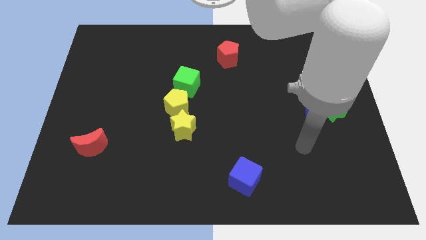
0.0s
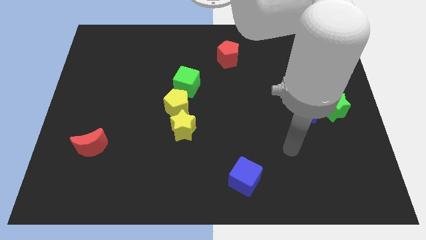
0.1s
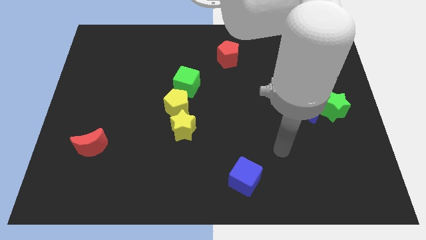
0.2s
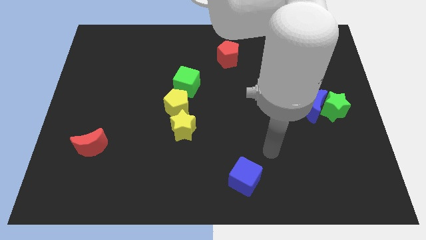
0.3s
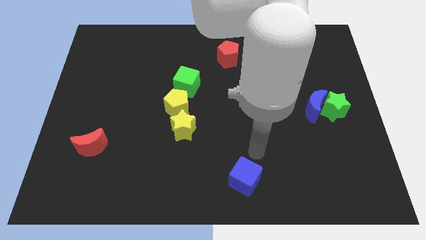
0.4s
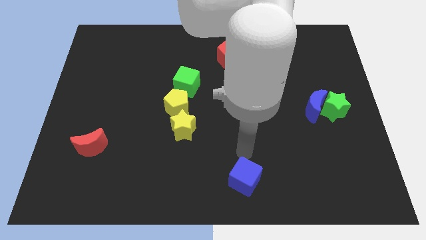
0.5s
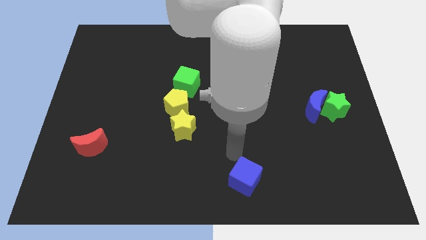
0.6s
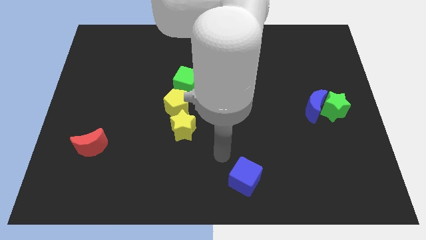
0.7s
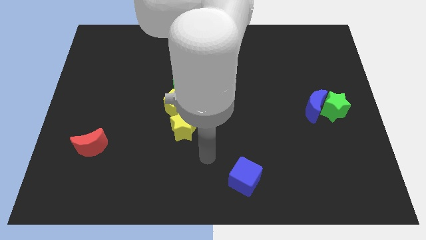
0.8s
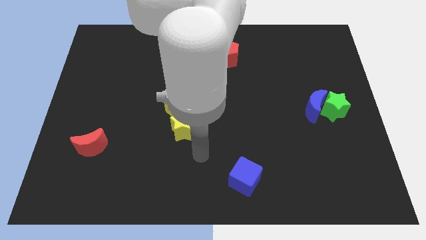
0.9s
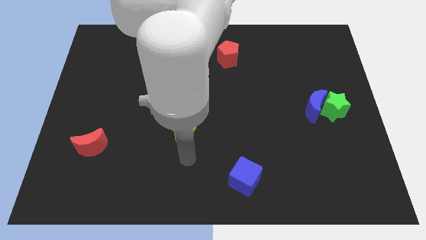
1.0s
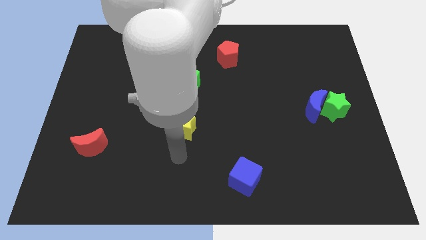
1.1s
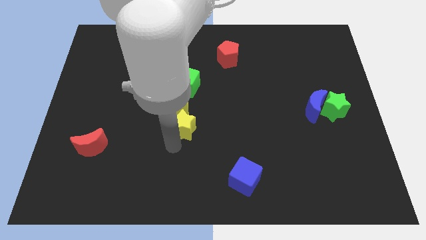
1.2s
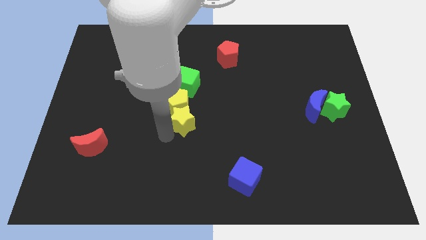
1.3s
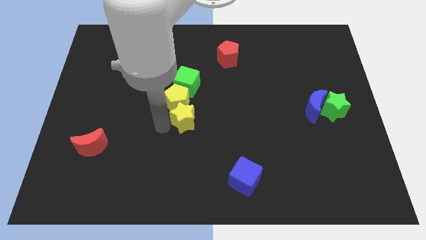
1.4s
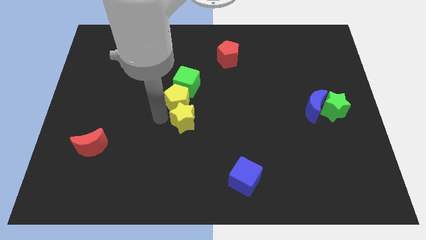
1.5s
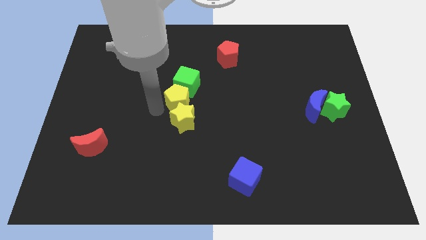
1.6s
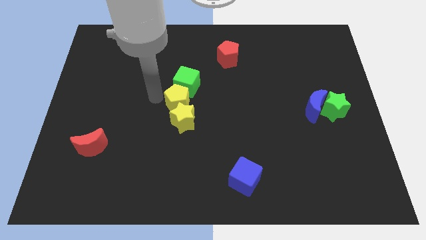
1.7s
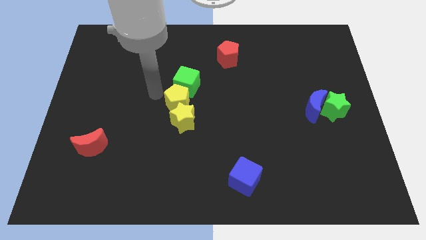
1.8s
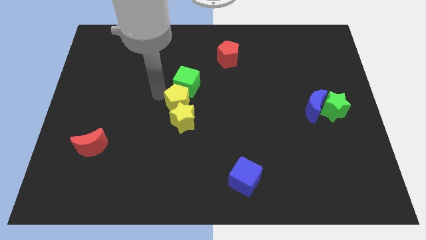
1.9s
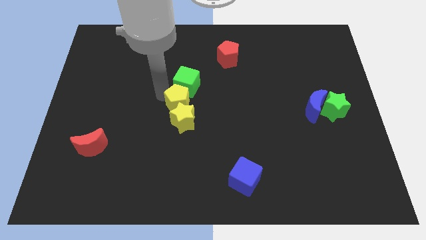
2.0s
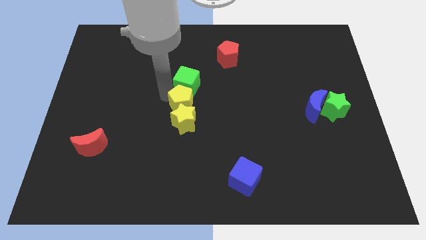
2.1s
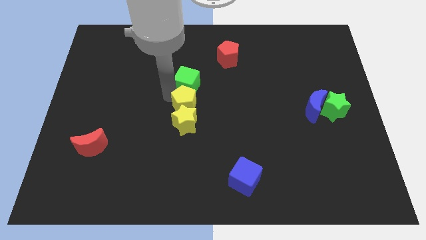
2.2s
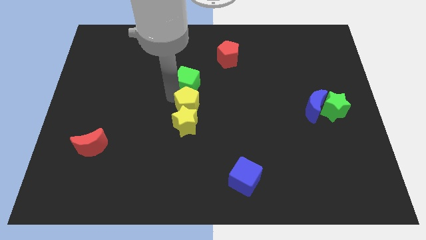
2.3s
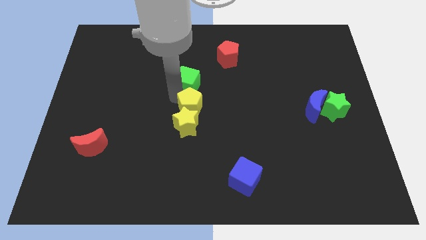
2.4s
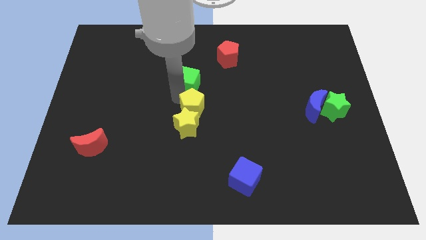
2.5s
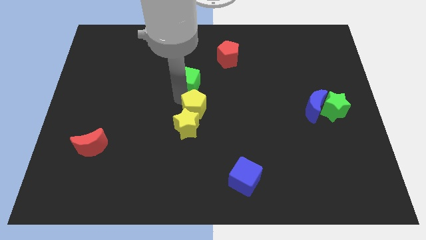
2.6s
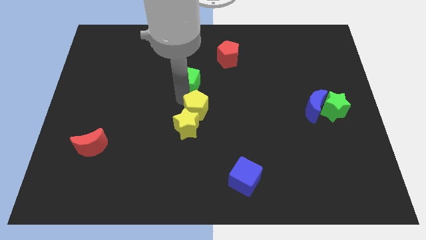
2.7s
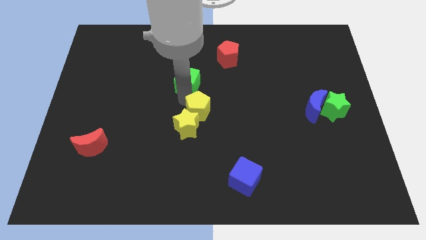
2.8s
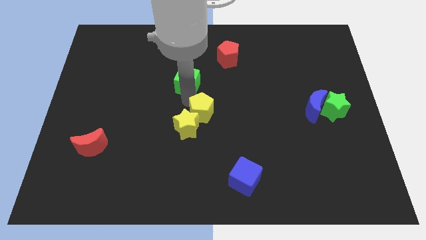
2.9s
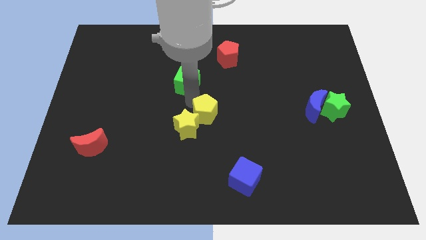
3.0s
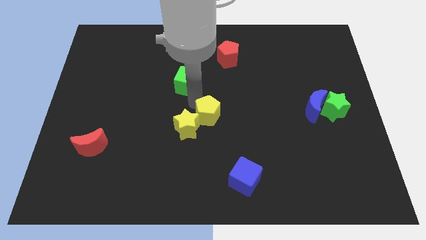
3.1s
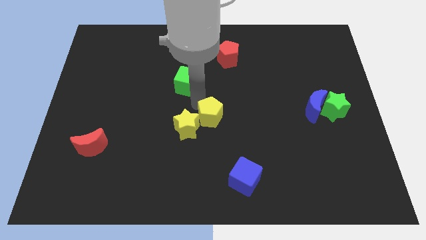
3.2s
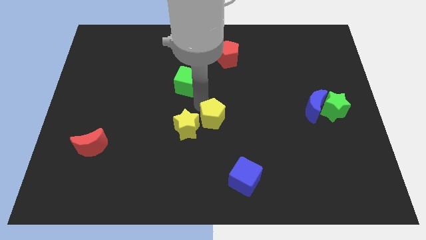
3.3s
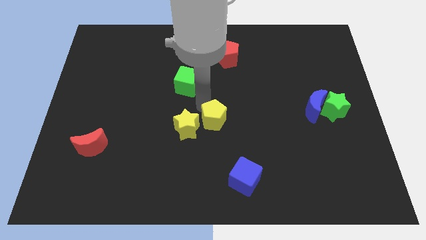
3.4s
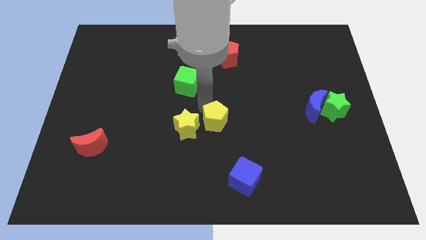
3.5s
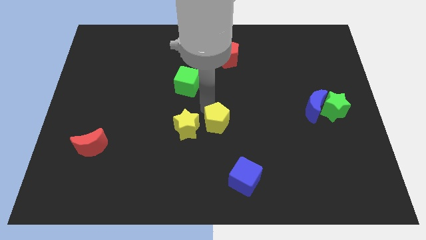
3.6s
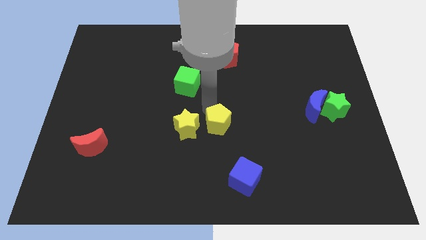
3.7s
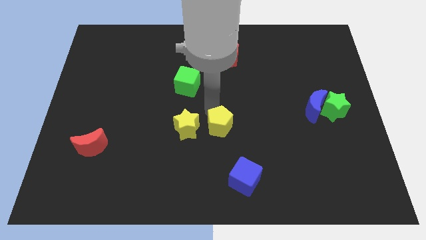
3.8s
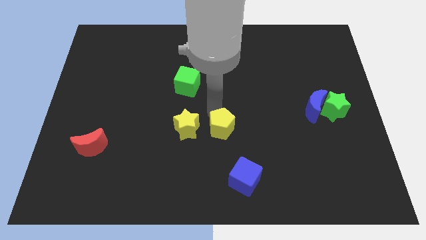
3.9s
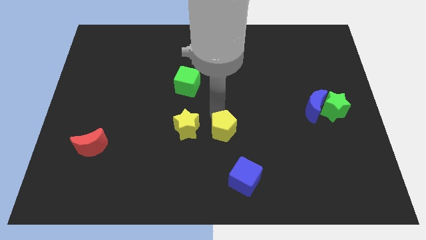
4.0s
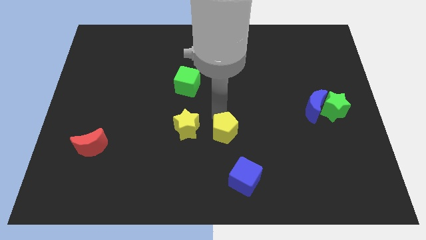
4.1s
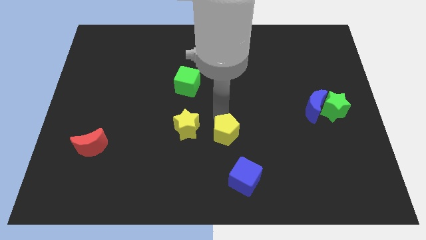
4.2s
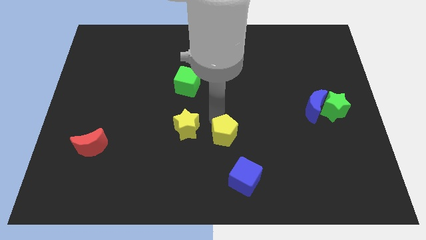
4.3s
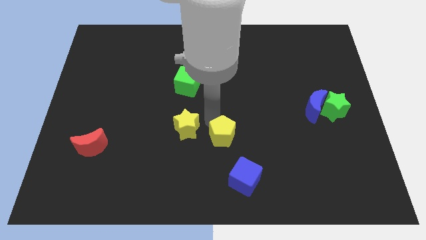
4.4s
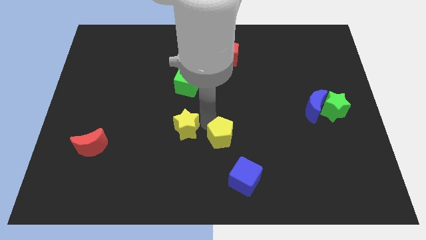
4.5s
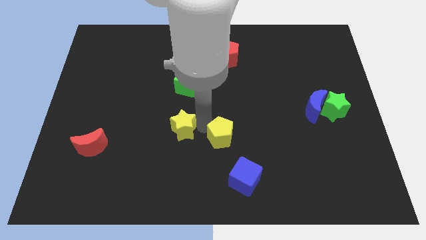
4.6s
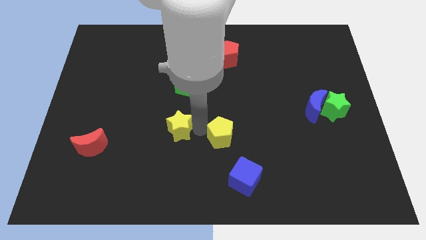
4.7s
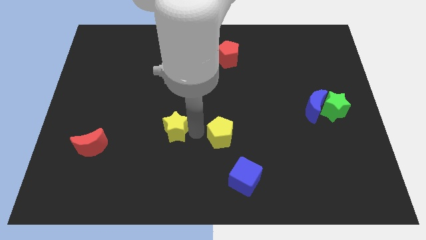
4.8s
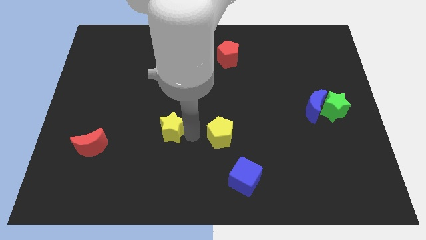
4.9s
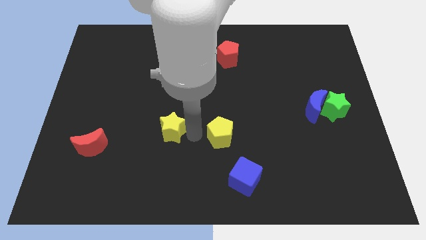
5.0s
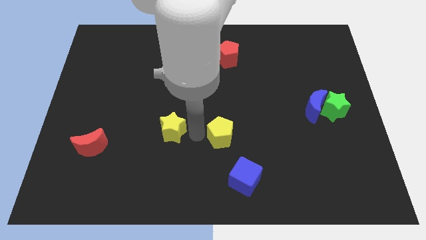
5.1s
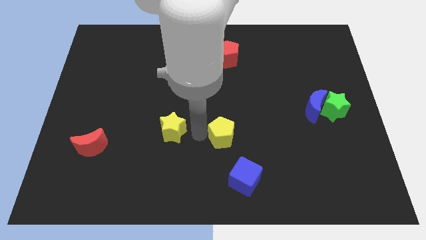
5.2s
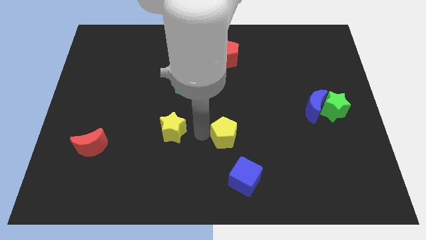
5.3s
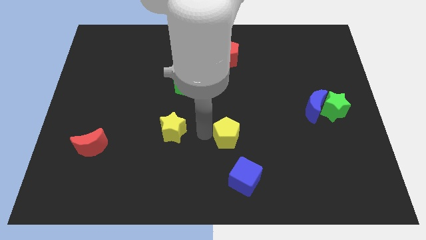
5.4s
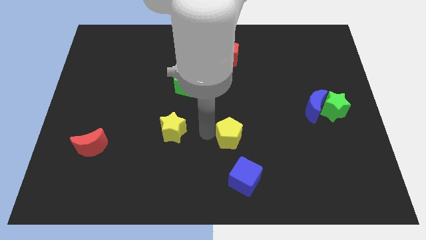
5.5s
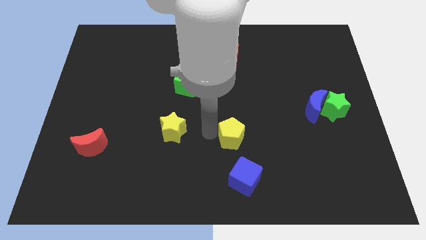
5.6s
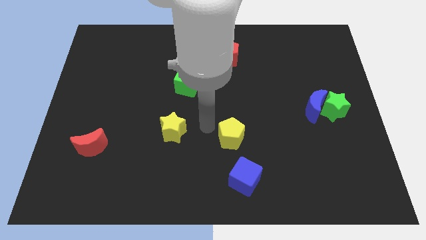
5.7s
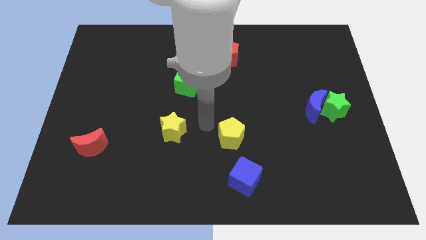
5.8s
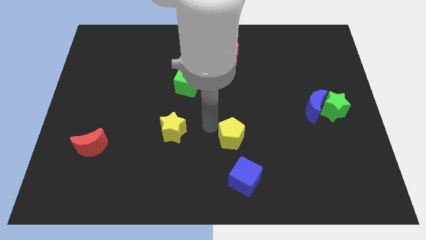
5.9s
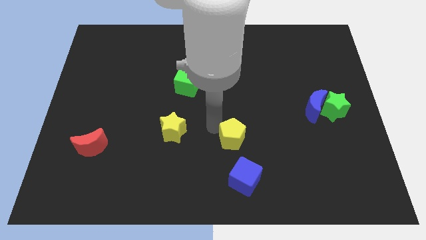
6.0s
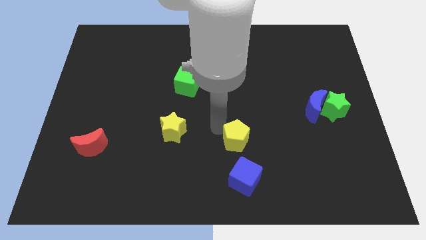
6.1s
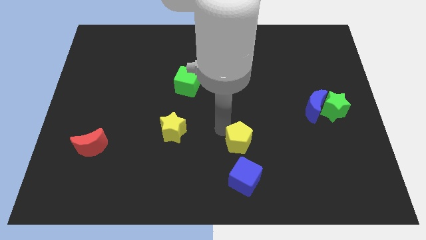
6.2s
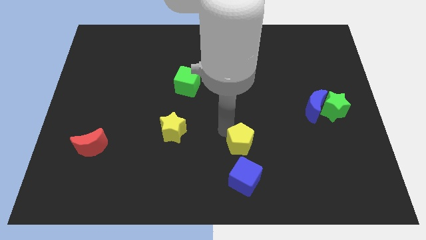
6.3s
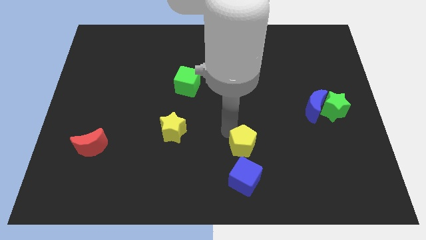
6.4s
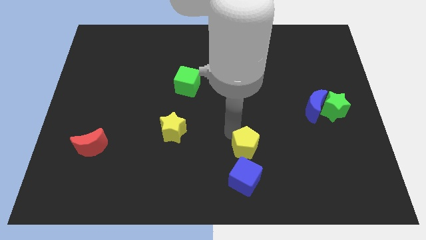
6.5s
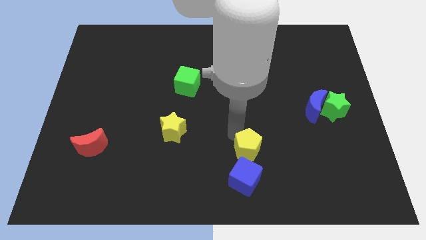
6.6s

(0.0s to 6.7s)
move the yellow pentagon to the top right side of the blue cube
